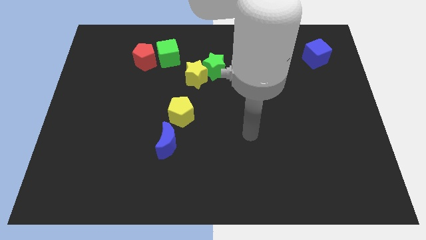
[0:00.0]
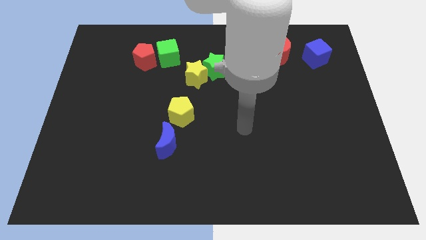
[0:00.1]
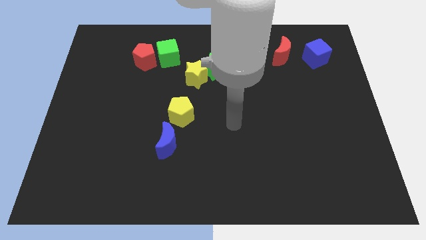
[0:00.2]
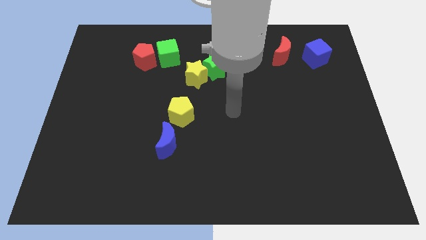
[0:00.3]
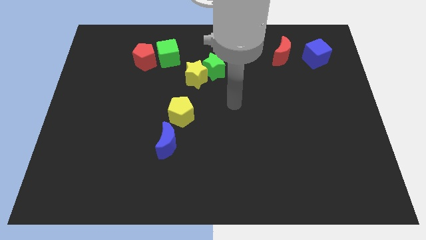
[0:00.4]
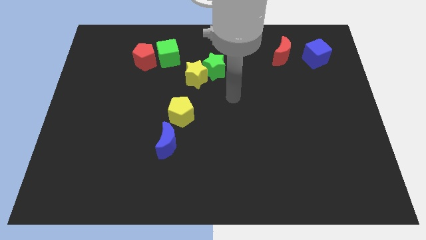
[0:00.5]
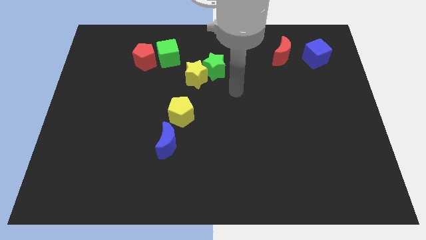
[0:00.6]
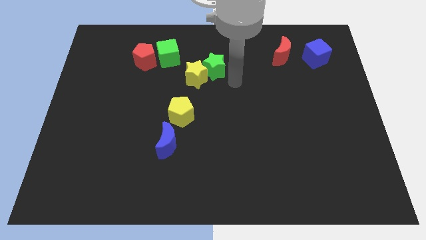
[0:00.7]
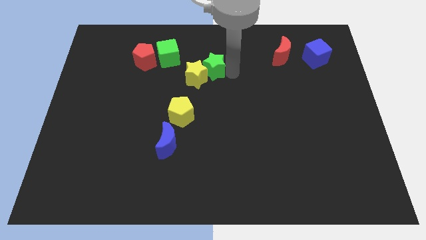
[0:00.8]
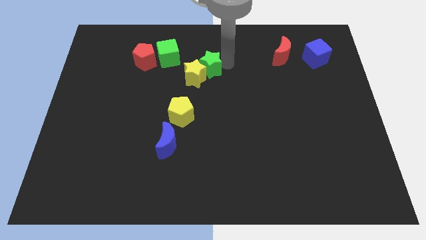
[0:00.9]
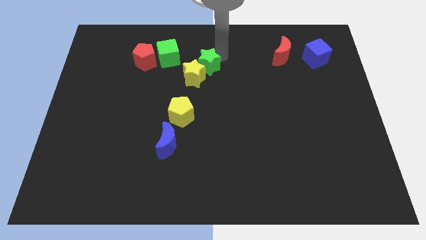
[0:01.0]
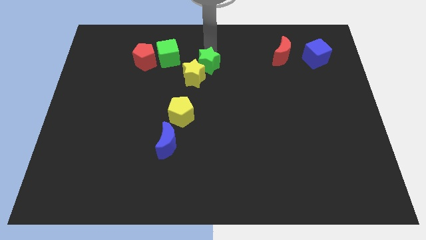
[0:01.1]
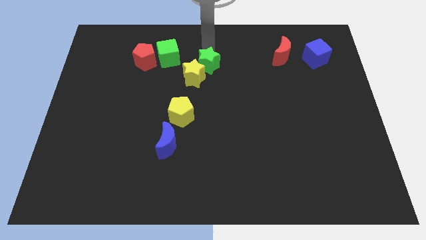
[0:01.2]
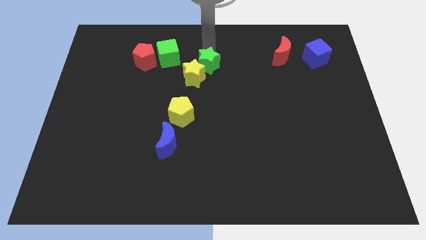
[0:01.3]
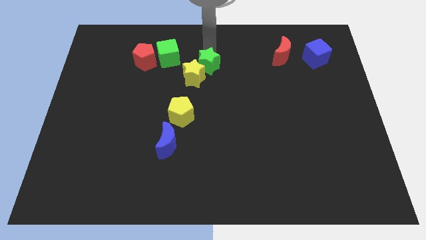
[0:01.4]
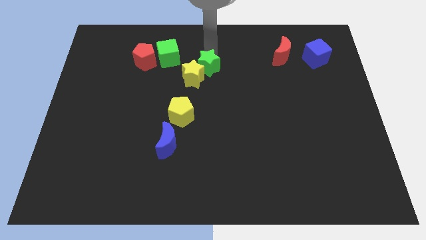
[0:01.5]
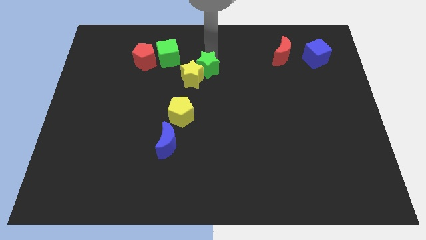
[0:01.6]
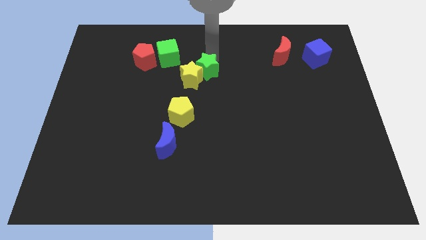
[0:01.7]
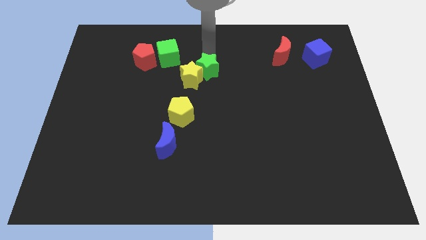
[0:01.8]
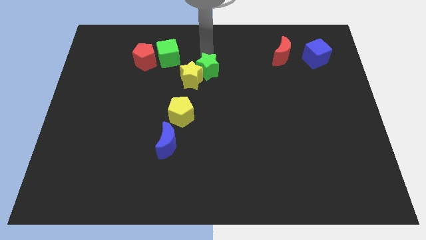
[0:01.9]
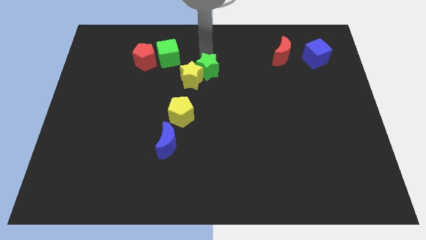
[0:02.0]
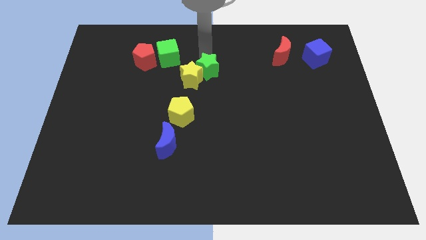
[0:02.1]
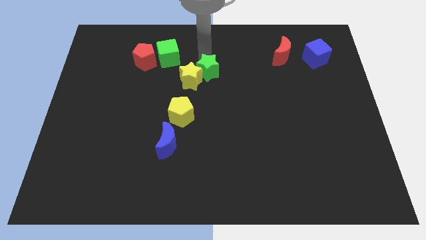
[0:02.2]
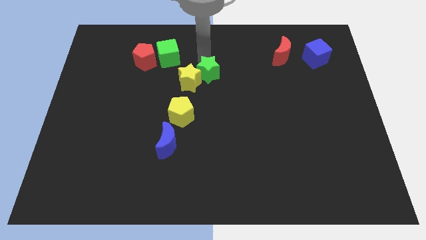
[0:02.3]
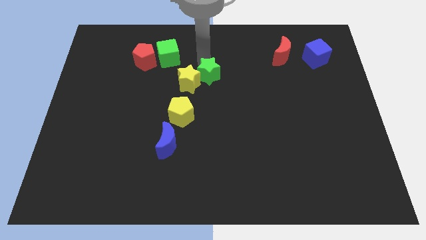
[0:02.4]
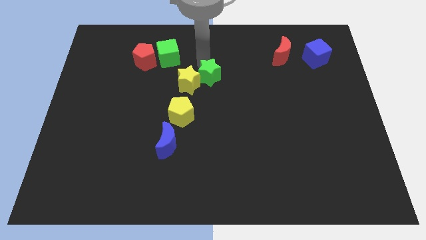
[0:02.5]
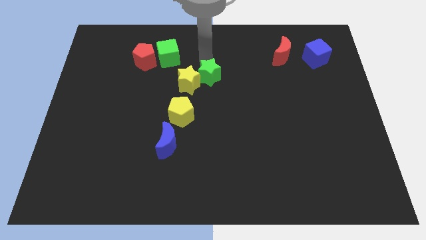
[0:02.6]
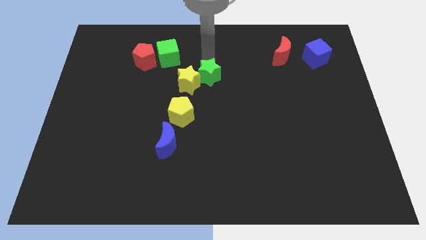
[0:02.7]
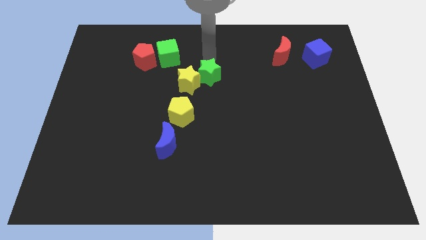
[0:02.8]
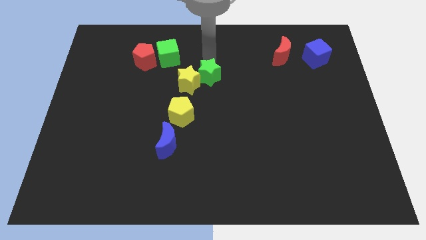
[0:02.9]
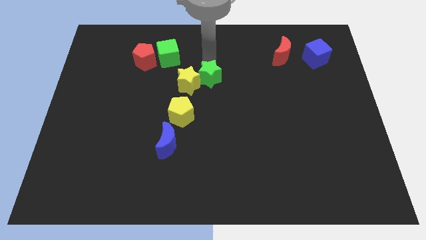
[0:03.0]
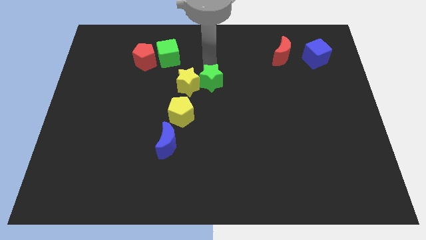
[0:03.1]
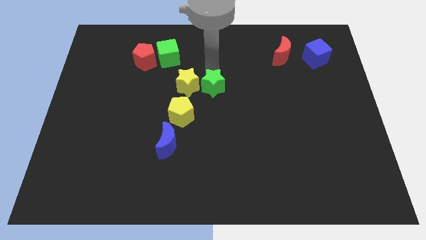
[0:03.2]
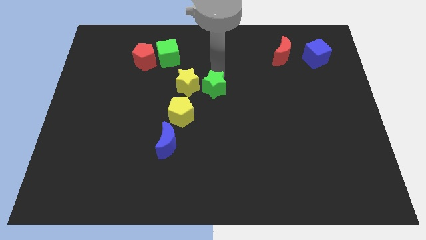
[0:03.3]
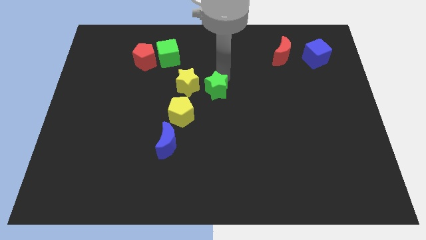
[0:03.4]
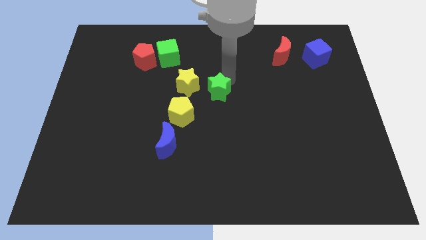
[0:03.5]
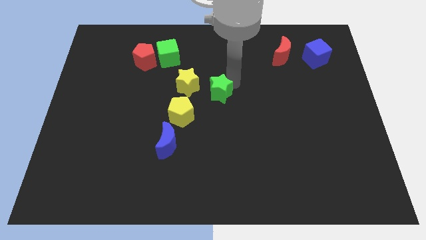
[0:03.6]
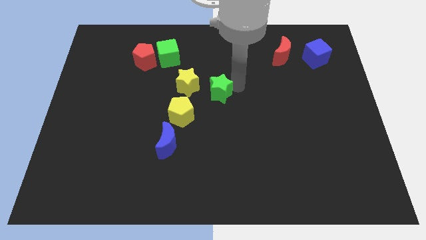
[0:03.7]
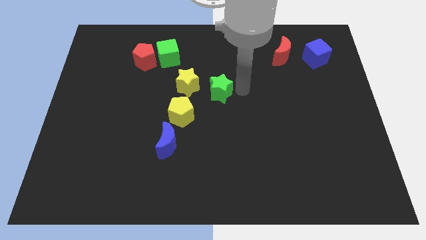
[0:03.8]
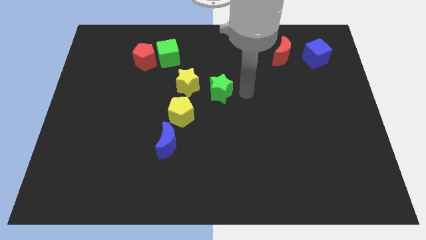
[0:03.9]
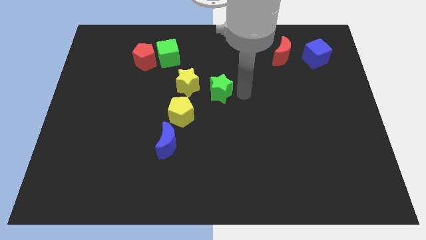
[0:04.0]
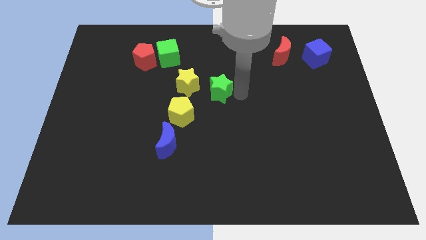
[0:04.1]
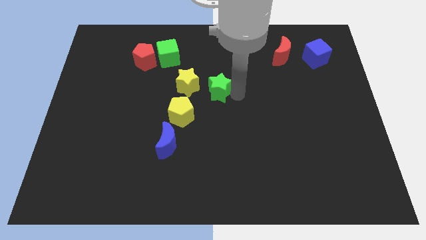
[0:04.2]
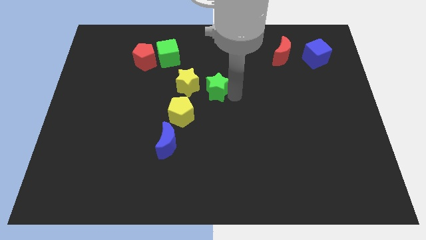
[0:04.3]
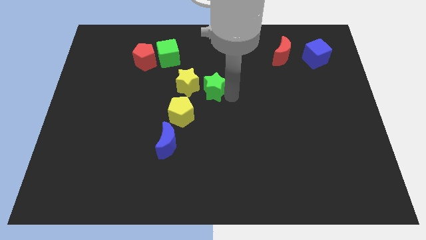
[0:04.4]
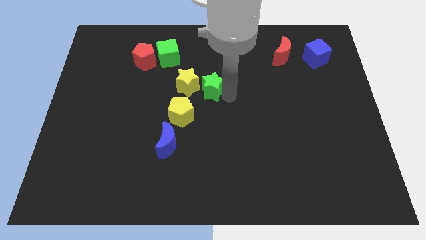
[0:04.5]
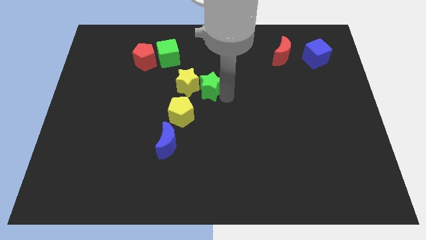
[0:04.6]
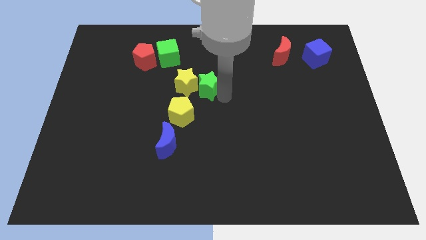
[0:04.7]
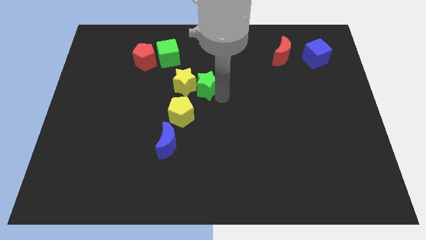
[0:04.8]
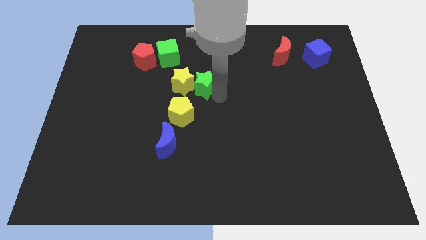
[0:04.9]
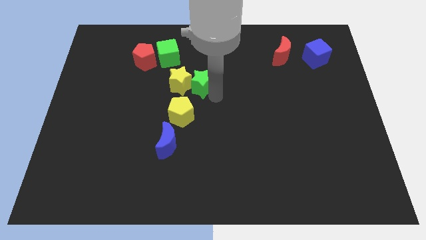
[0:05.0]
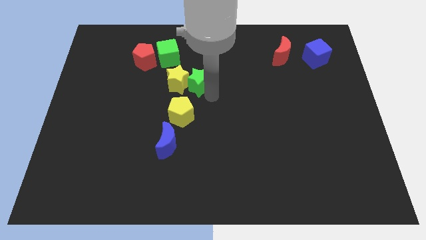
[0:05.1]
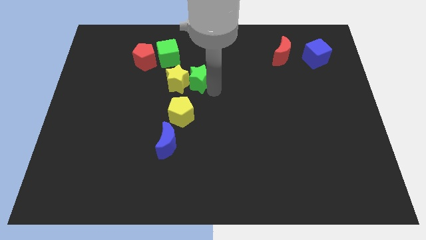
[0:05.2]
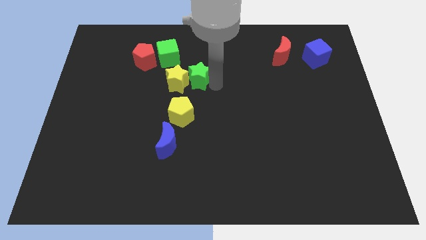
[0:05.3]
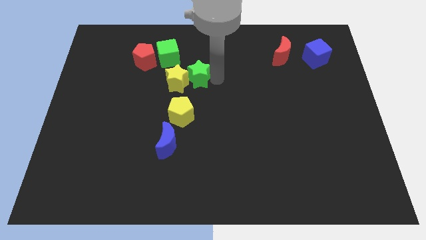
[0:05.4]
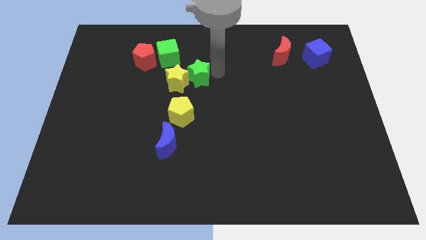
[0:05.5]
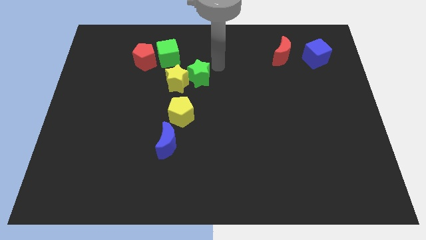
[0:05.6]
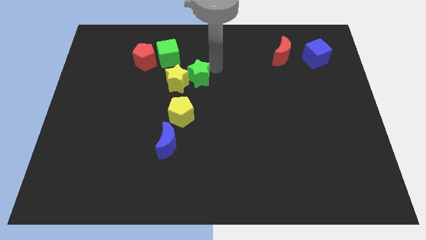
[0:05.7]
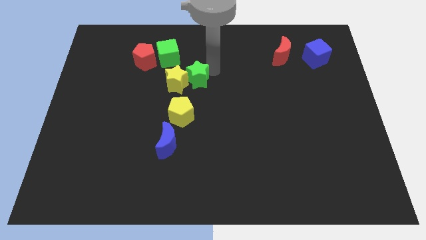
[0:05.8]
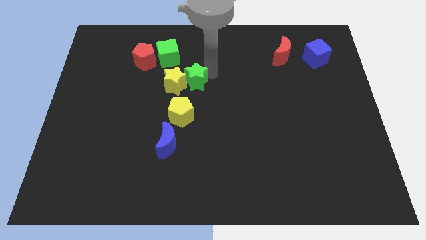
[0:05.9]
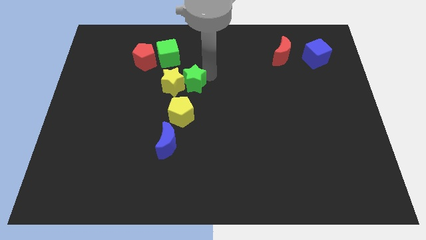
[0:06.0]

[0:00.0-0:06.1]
slightly move the green star downwards and left diagonally

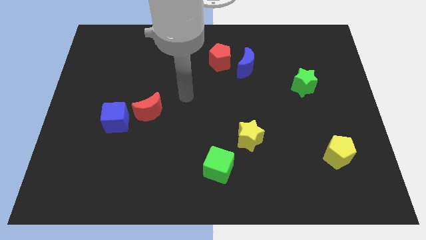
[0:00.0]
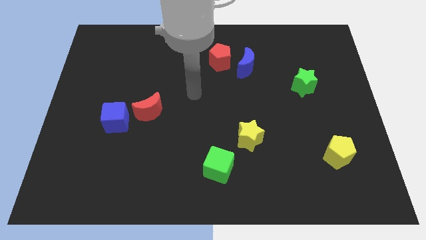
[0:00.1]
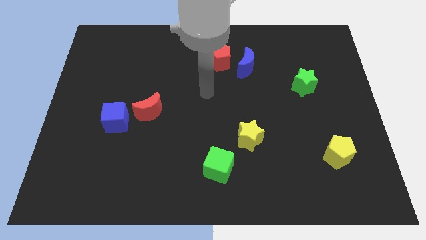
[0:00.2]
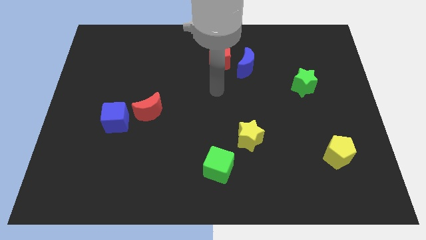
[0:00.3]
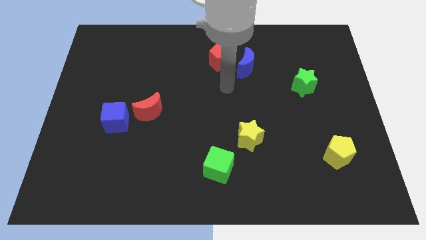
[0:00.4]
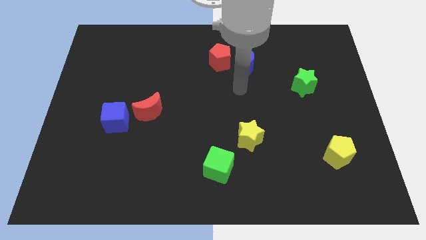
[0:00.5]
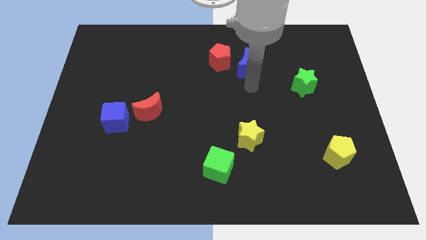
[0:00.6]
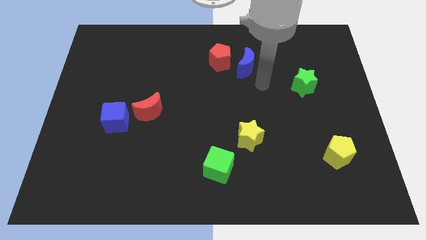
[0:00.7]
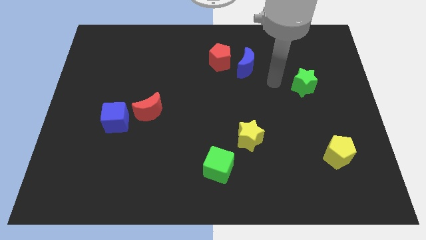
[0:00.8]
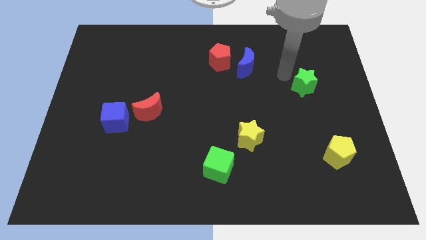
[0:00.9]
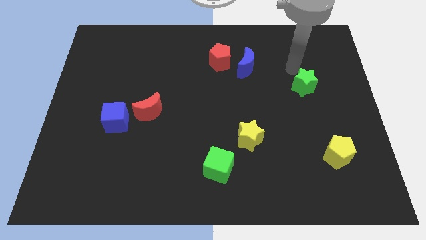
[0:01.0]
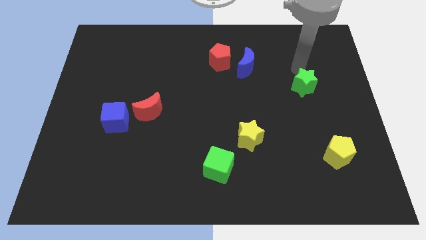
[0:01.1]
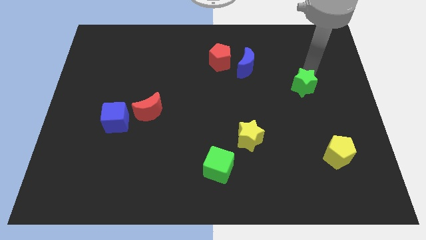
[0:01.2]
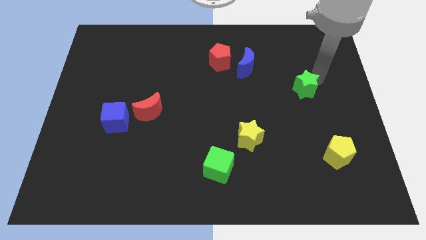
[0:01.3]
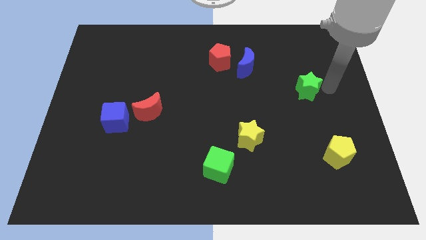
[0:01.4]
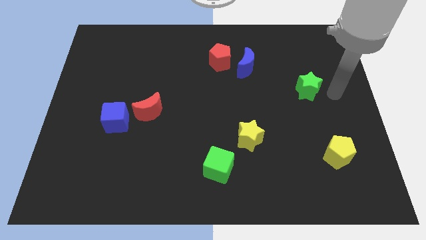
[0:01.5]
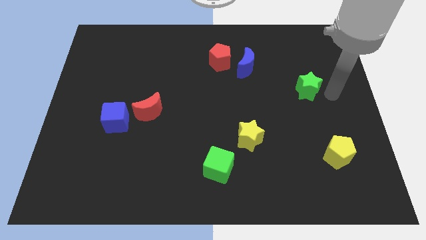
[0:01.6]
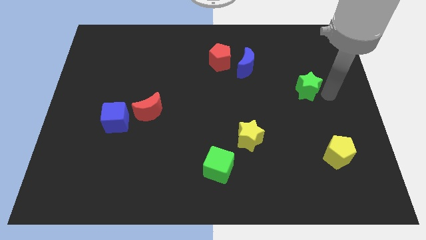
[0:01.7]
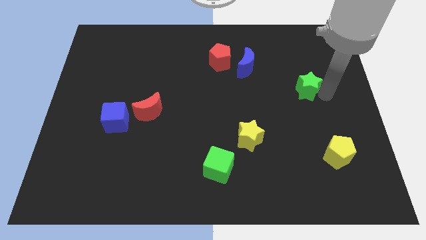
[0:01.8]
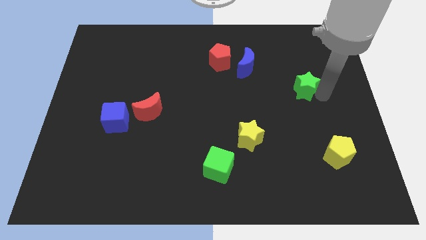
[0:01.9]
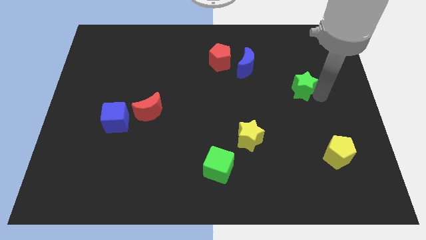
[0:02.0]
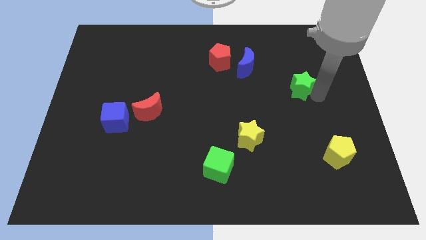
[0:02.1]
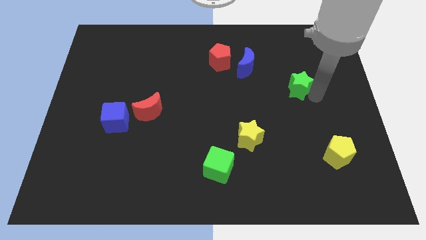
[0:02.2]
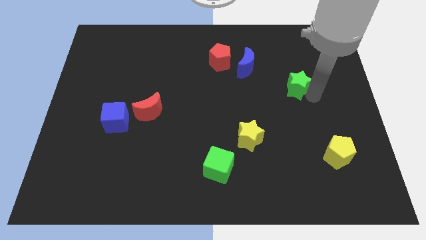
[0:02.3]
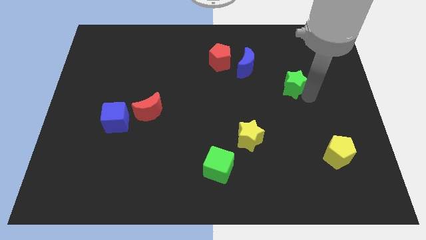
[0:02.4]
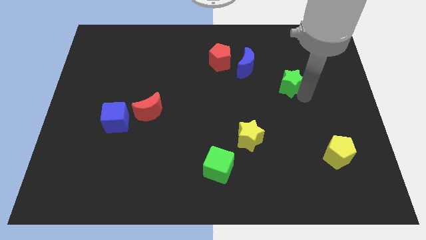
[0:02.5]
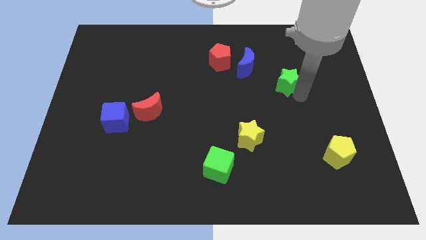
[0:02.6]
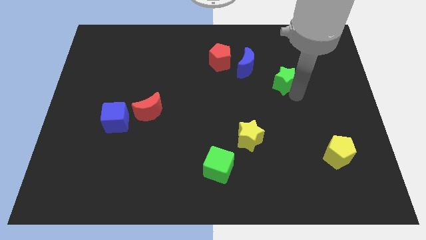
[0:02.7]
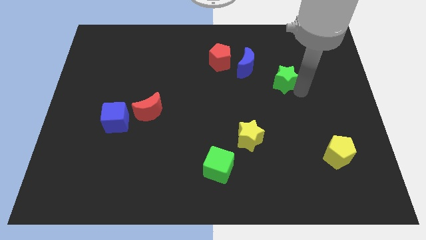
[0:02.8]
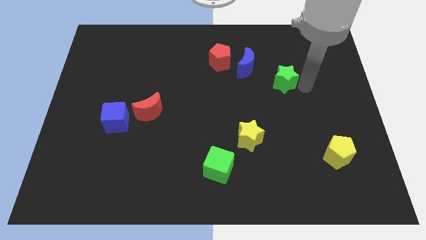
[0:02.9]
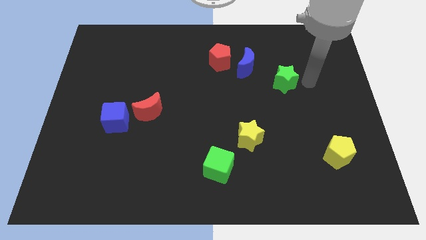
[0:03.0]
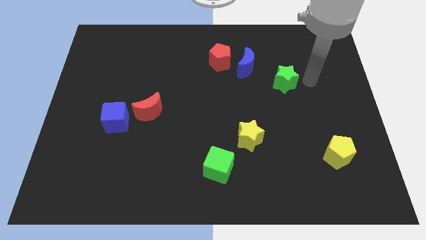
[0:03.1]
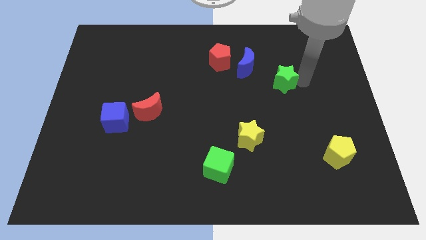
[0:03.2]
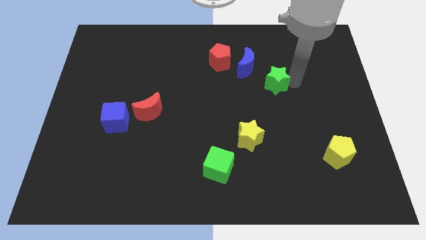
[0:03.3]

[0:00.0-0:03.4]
slide the green star to the left somewhat
